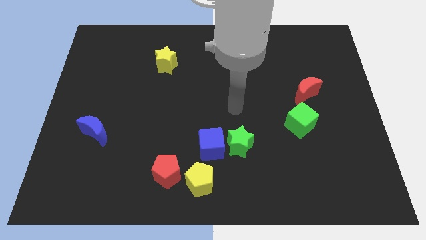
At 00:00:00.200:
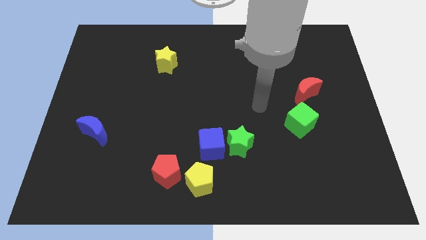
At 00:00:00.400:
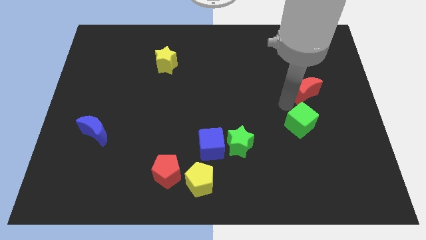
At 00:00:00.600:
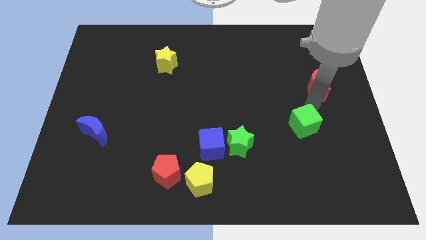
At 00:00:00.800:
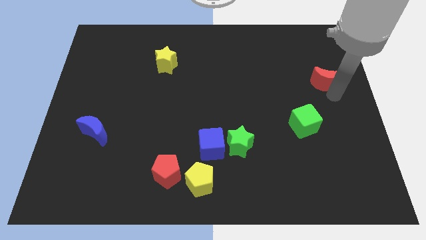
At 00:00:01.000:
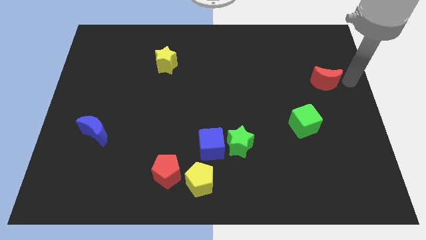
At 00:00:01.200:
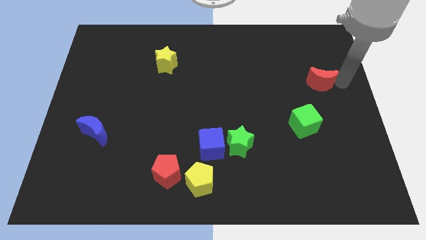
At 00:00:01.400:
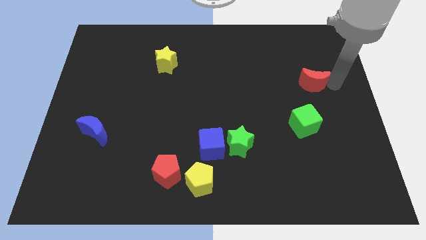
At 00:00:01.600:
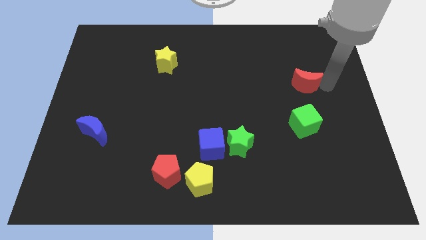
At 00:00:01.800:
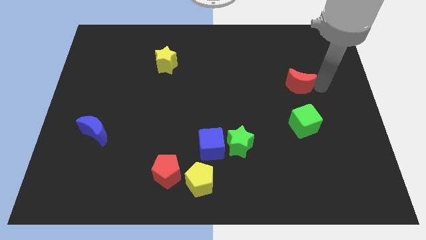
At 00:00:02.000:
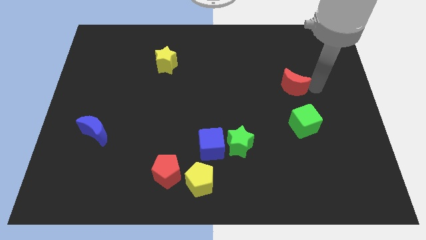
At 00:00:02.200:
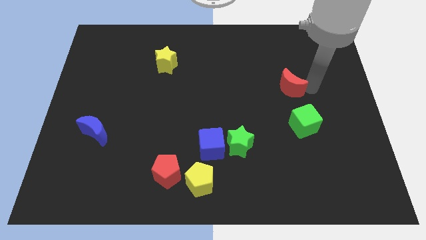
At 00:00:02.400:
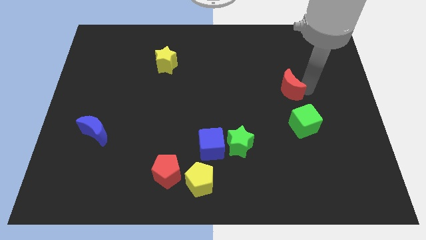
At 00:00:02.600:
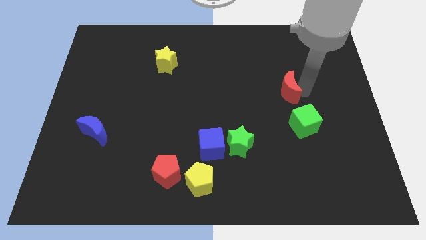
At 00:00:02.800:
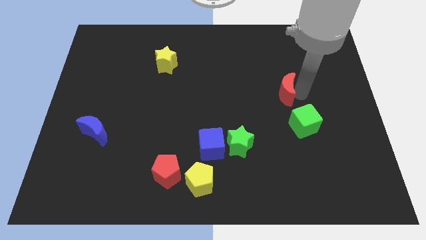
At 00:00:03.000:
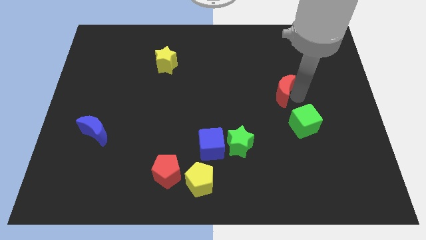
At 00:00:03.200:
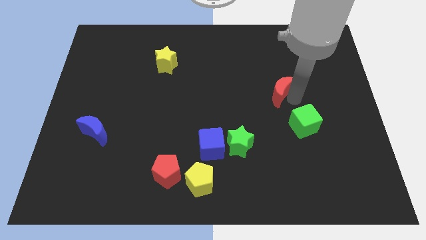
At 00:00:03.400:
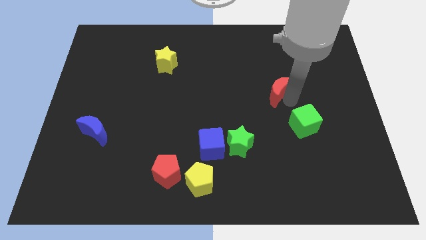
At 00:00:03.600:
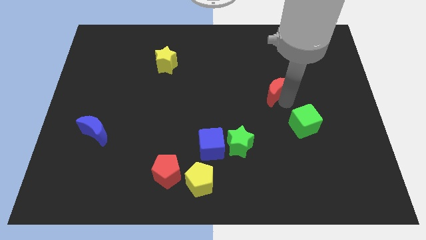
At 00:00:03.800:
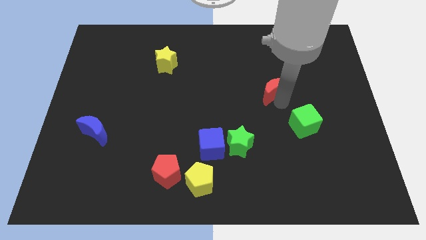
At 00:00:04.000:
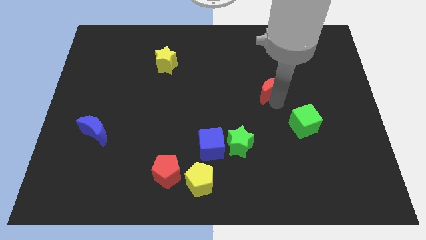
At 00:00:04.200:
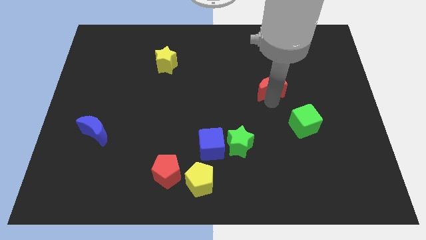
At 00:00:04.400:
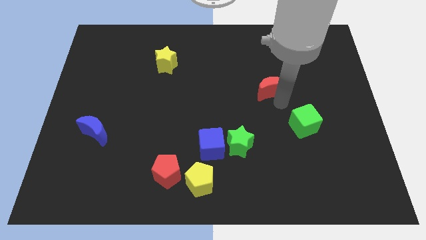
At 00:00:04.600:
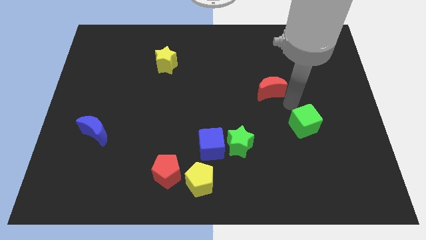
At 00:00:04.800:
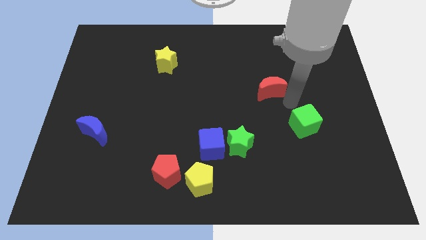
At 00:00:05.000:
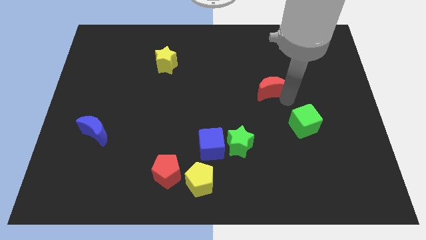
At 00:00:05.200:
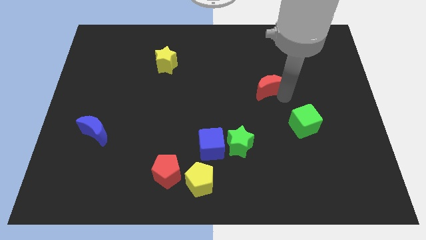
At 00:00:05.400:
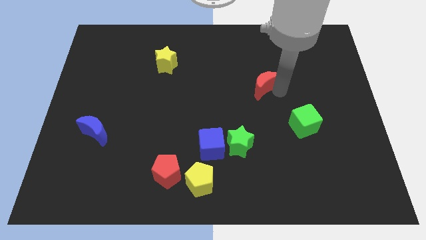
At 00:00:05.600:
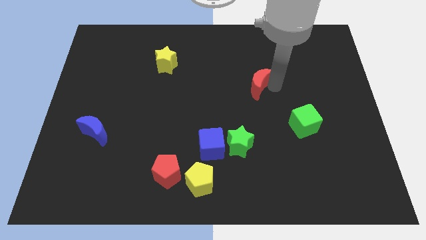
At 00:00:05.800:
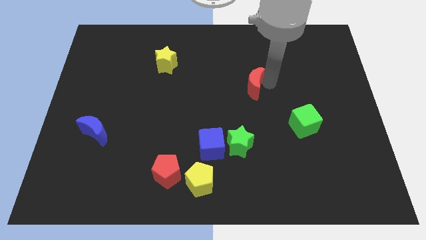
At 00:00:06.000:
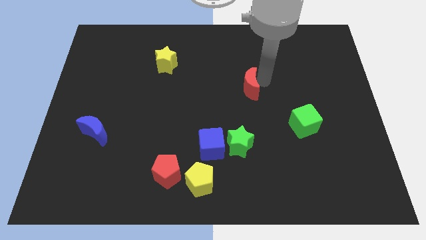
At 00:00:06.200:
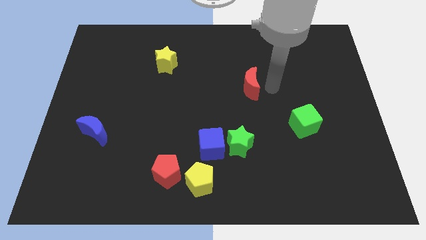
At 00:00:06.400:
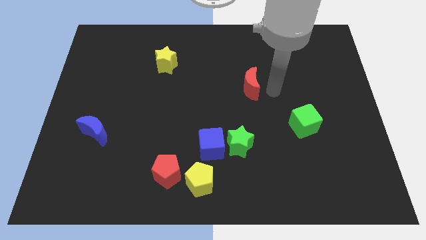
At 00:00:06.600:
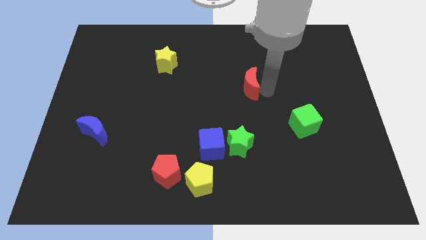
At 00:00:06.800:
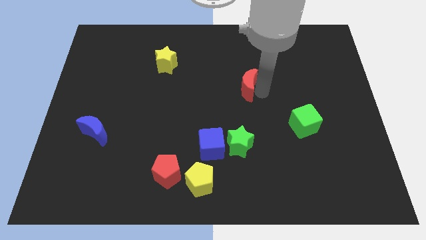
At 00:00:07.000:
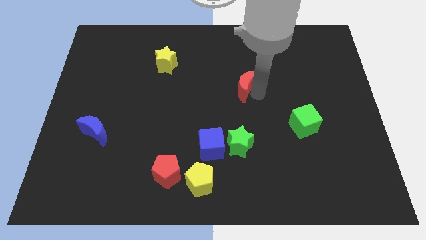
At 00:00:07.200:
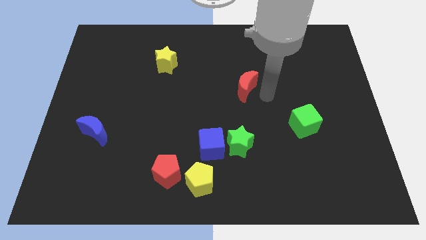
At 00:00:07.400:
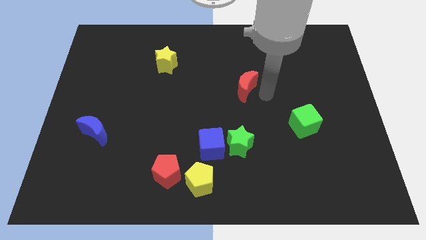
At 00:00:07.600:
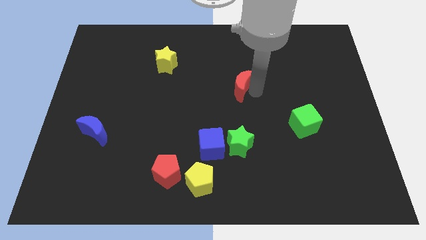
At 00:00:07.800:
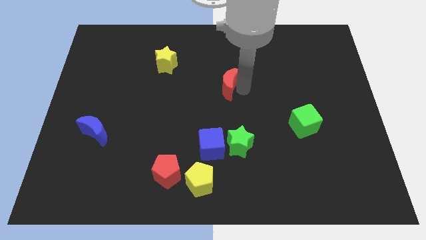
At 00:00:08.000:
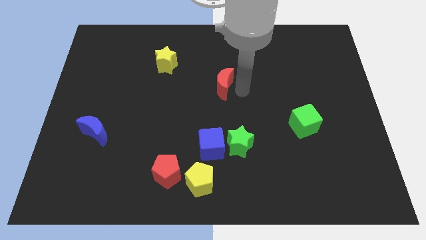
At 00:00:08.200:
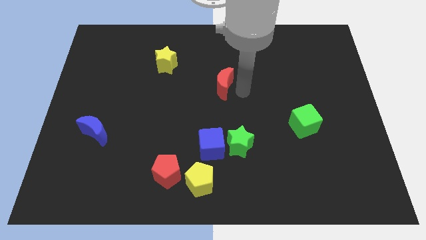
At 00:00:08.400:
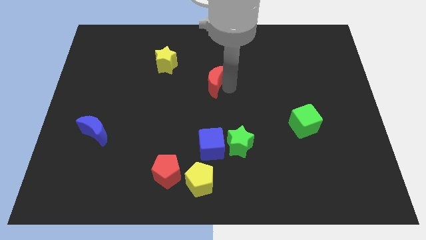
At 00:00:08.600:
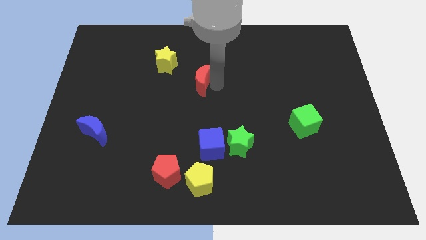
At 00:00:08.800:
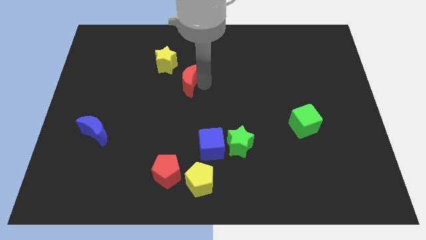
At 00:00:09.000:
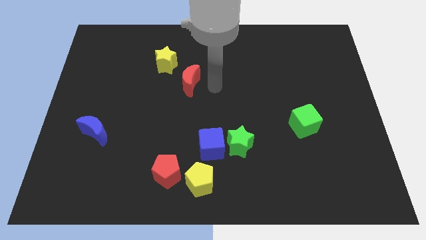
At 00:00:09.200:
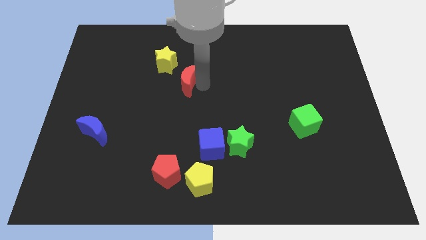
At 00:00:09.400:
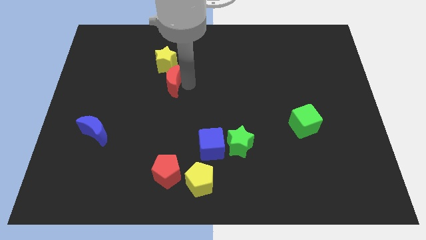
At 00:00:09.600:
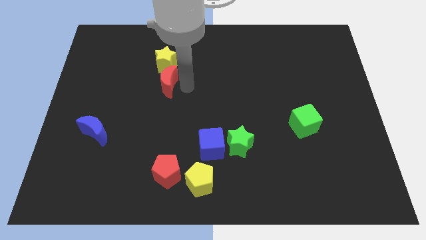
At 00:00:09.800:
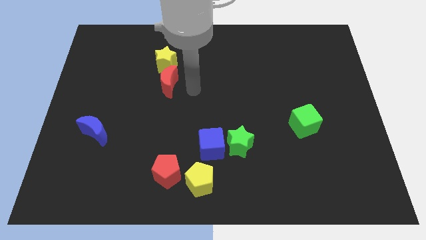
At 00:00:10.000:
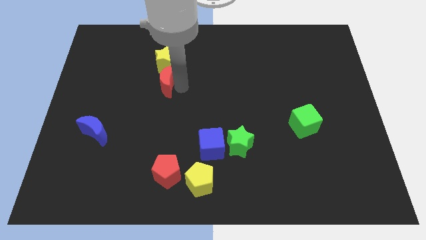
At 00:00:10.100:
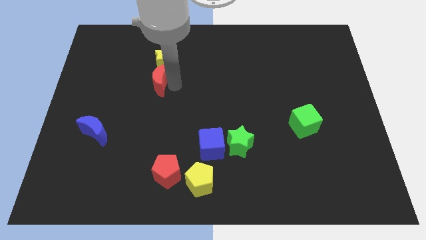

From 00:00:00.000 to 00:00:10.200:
move the red moon to the bottom left of the yellow star

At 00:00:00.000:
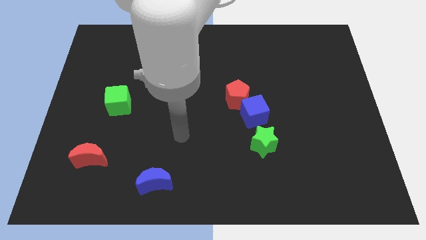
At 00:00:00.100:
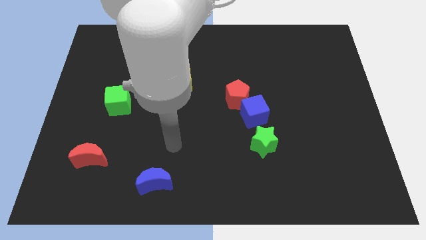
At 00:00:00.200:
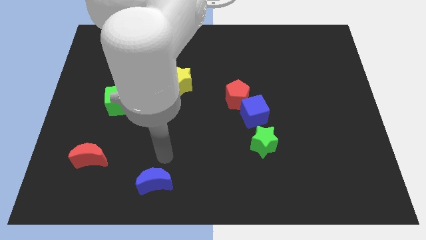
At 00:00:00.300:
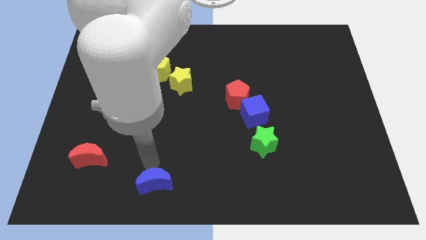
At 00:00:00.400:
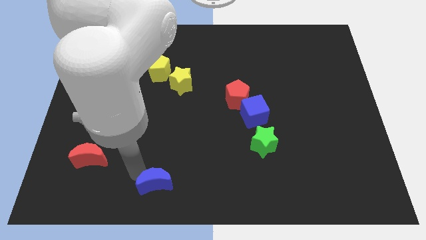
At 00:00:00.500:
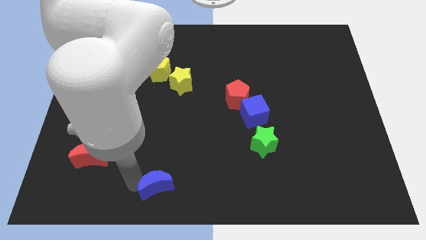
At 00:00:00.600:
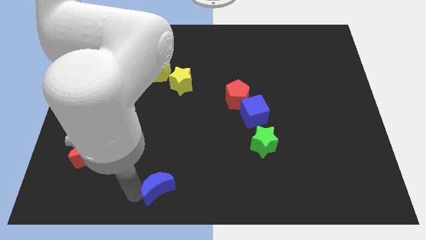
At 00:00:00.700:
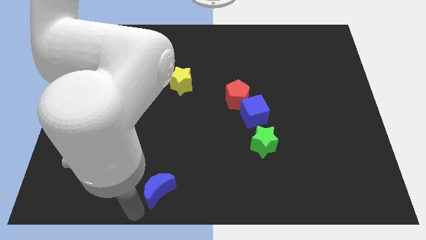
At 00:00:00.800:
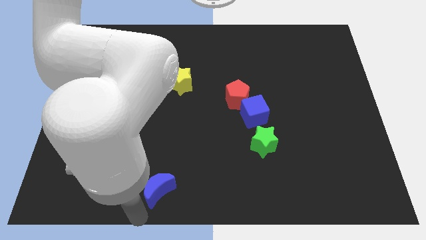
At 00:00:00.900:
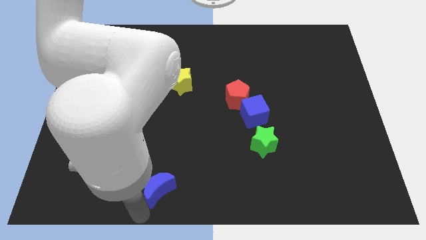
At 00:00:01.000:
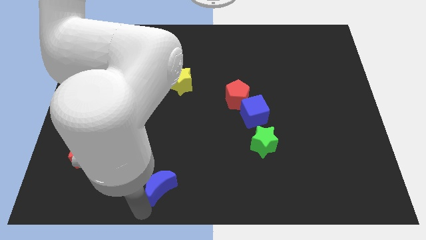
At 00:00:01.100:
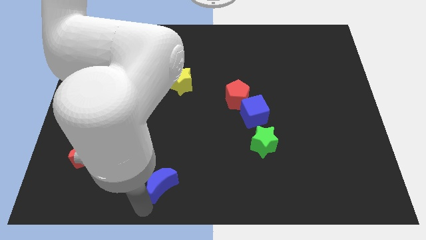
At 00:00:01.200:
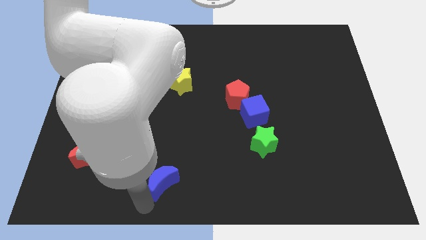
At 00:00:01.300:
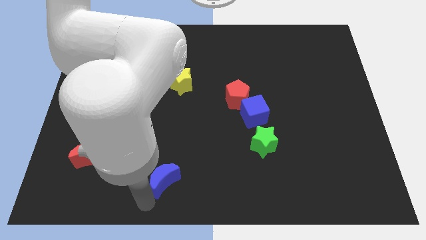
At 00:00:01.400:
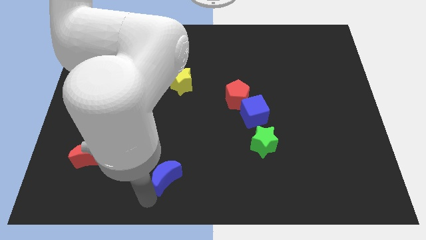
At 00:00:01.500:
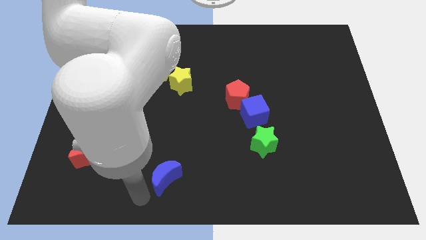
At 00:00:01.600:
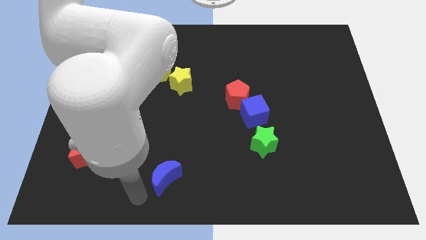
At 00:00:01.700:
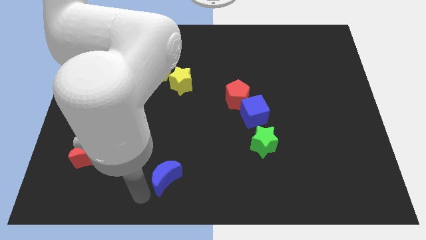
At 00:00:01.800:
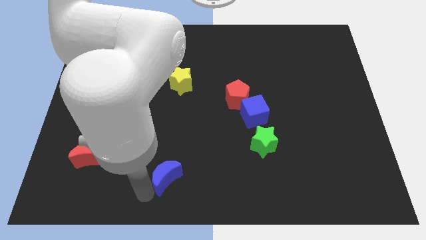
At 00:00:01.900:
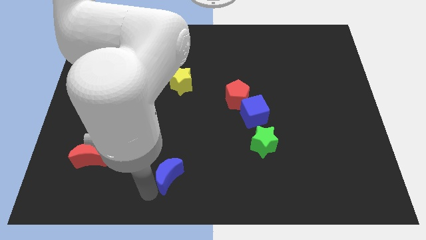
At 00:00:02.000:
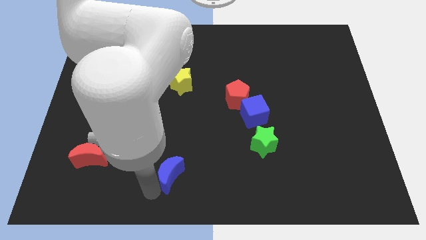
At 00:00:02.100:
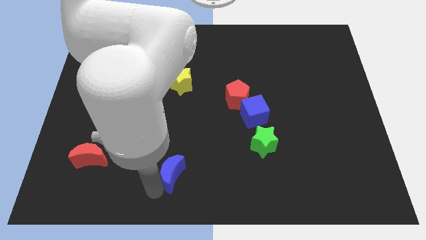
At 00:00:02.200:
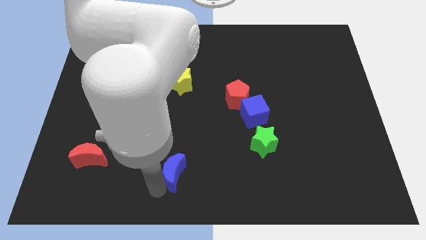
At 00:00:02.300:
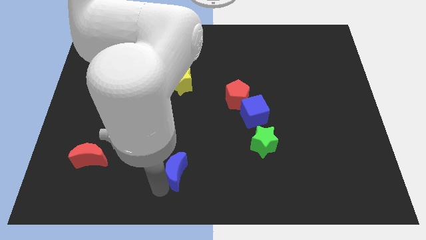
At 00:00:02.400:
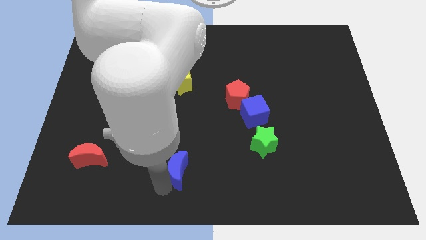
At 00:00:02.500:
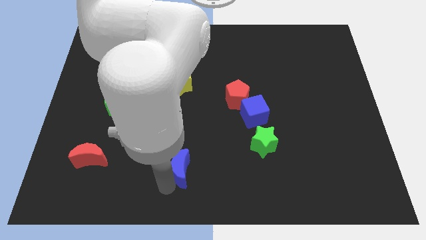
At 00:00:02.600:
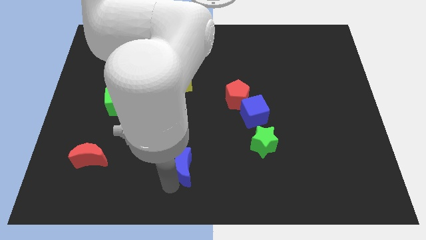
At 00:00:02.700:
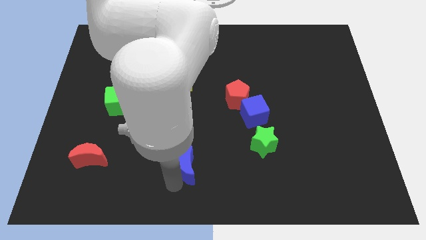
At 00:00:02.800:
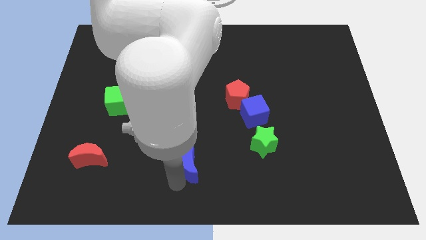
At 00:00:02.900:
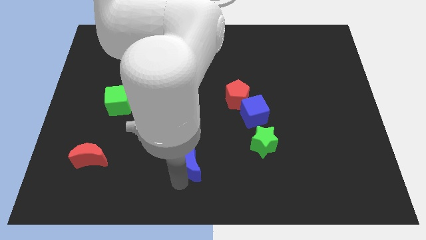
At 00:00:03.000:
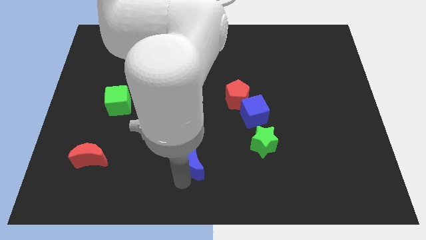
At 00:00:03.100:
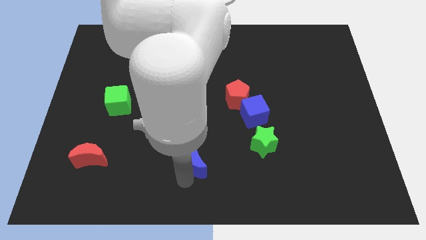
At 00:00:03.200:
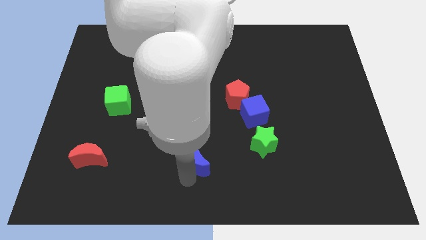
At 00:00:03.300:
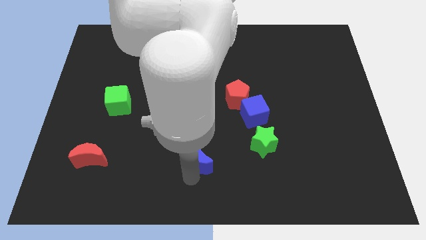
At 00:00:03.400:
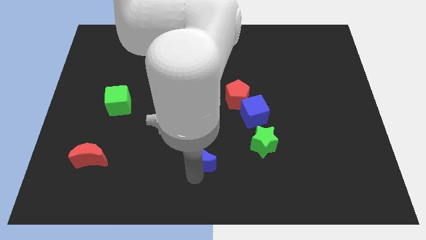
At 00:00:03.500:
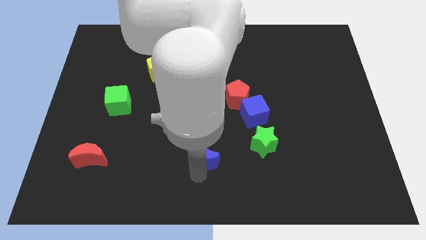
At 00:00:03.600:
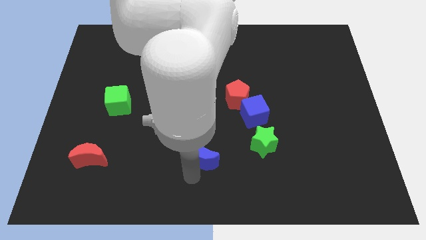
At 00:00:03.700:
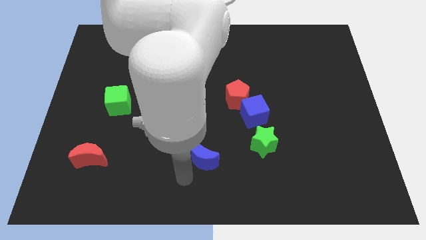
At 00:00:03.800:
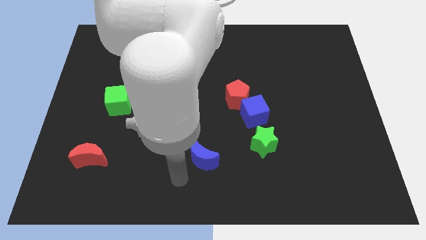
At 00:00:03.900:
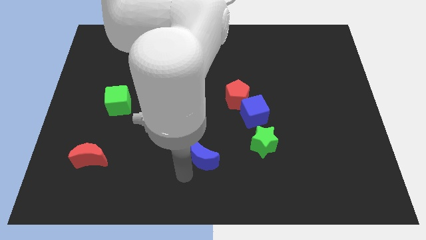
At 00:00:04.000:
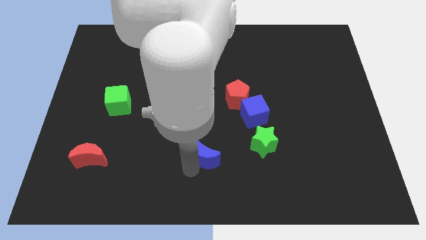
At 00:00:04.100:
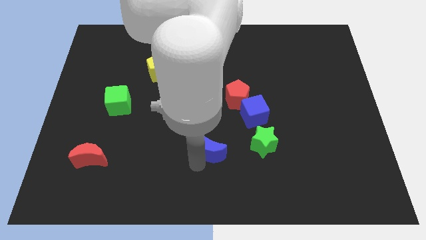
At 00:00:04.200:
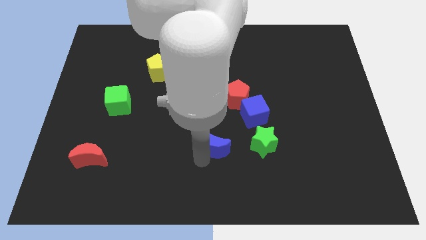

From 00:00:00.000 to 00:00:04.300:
move the blue moon to the bottom left of the blue cube
